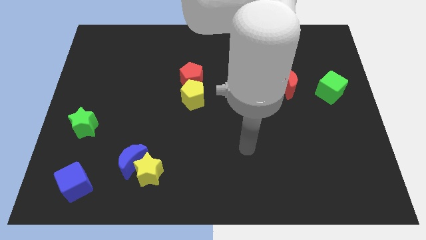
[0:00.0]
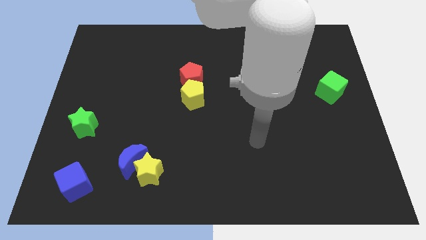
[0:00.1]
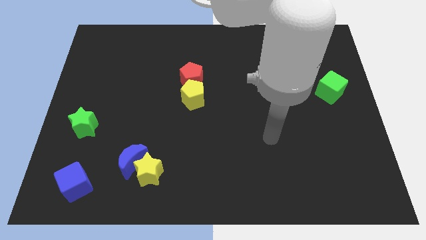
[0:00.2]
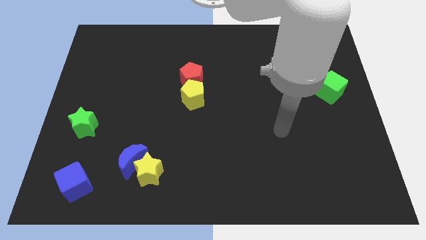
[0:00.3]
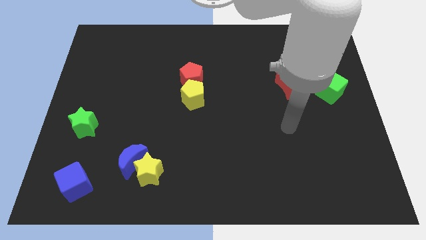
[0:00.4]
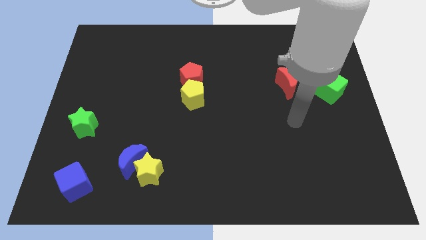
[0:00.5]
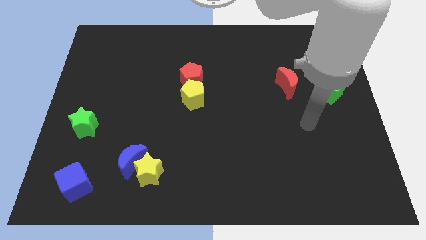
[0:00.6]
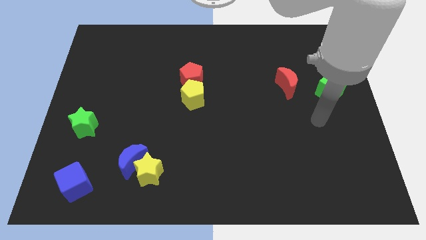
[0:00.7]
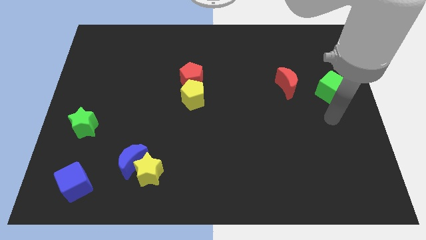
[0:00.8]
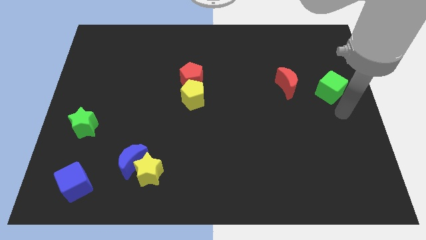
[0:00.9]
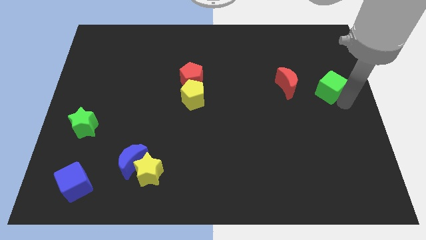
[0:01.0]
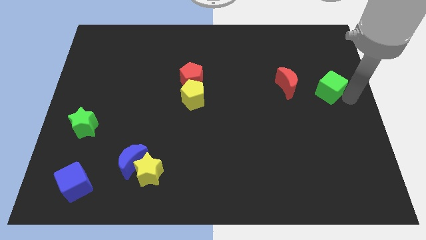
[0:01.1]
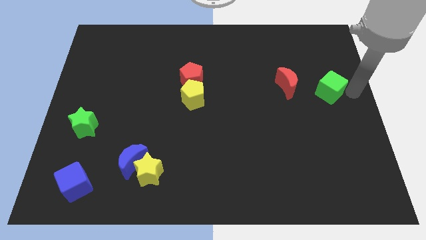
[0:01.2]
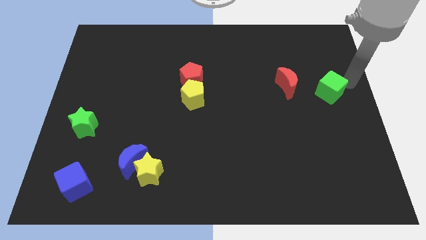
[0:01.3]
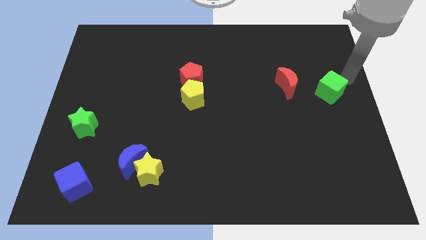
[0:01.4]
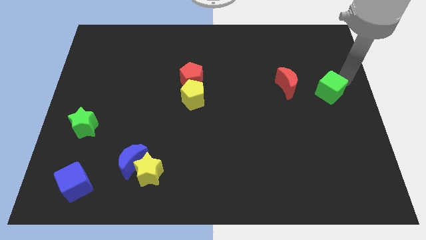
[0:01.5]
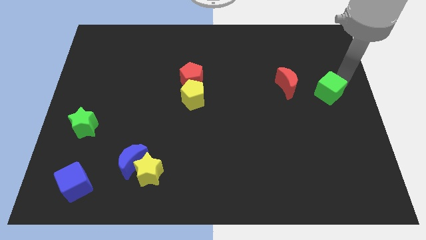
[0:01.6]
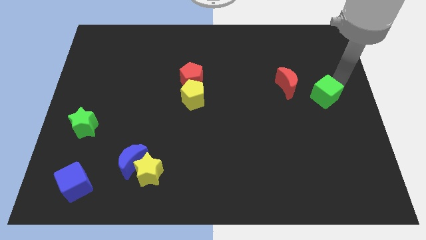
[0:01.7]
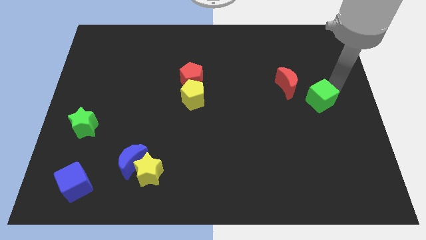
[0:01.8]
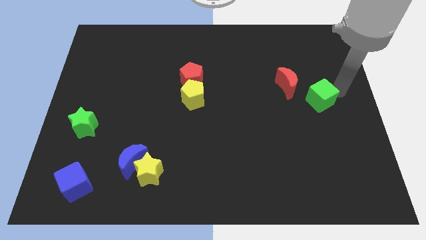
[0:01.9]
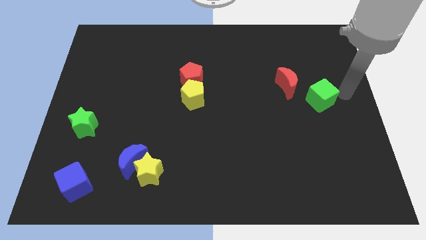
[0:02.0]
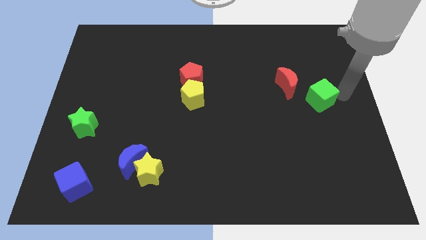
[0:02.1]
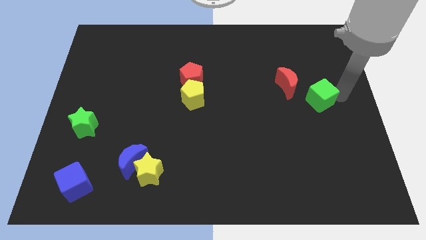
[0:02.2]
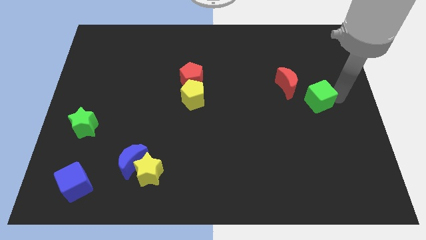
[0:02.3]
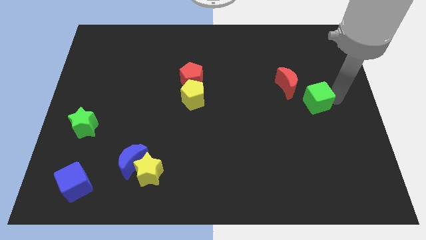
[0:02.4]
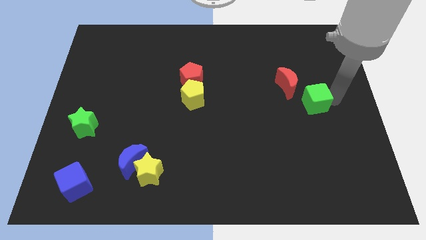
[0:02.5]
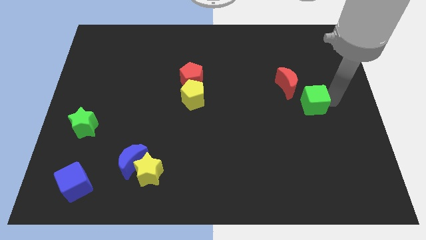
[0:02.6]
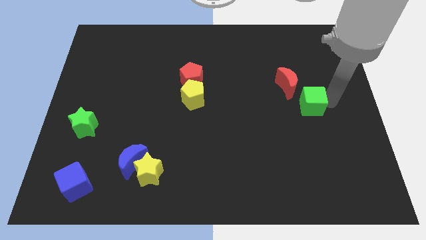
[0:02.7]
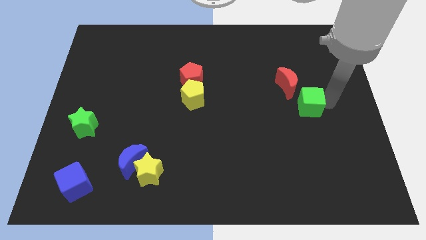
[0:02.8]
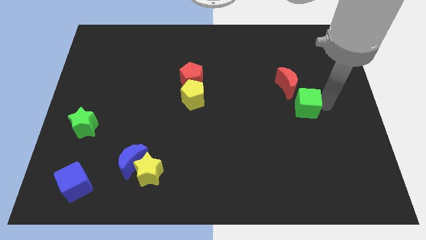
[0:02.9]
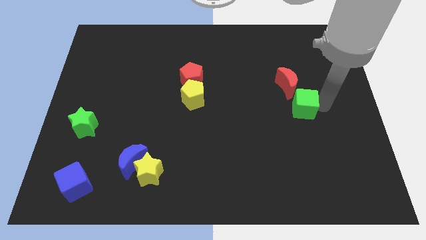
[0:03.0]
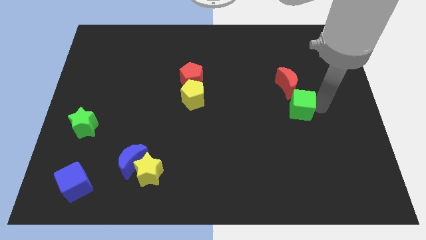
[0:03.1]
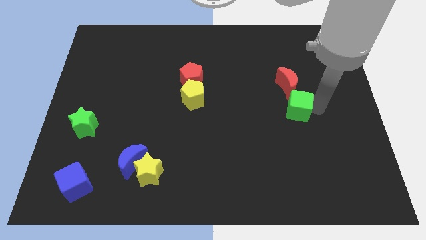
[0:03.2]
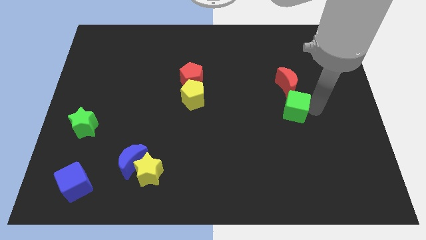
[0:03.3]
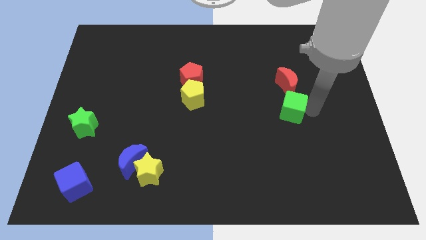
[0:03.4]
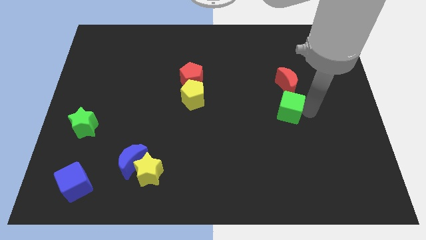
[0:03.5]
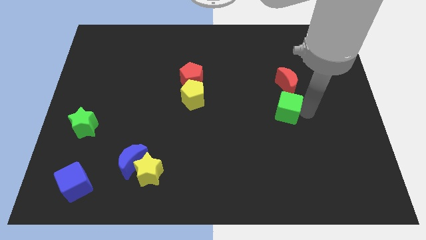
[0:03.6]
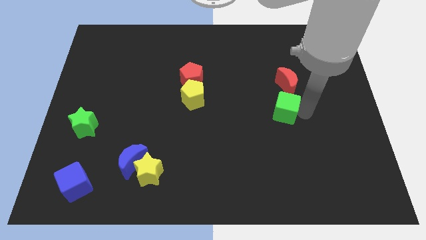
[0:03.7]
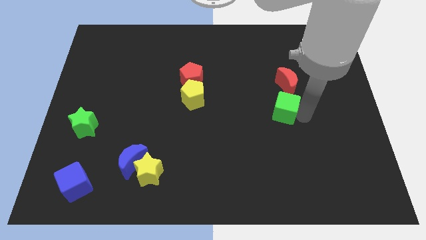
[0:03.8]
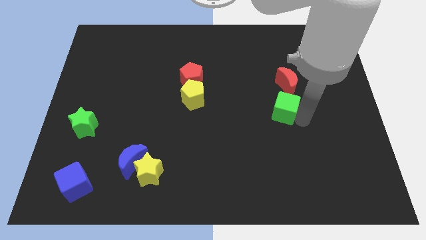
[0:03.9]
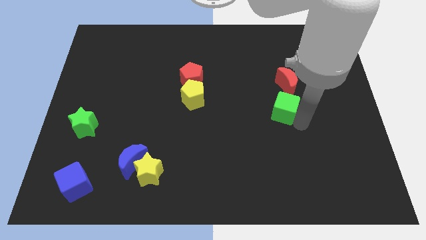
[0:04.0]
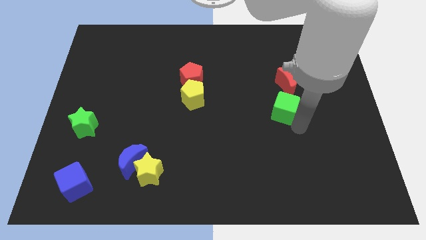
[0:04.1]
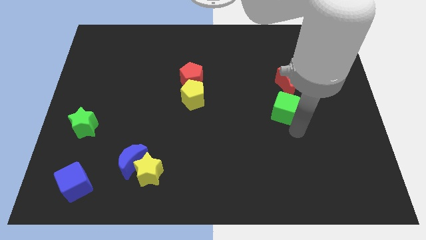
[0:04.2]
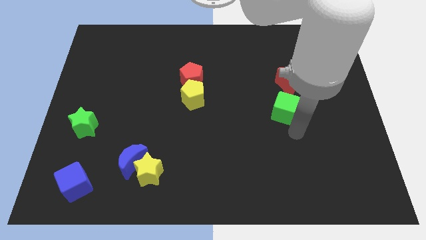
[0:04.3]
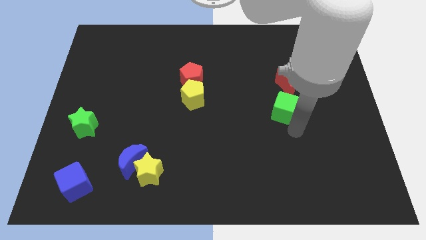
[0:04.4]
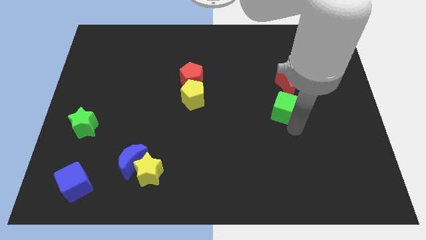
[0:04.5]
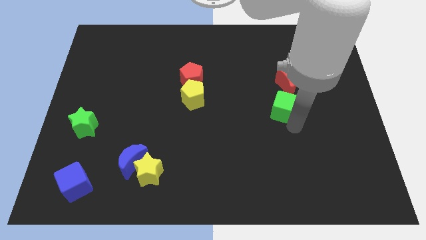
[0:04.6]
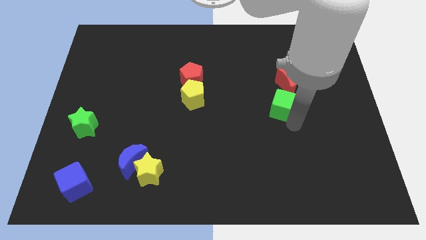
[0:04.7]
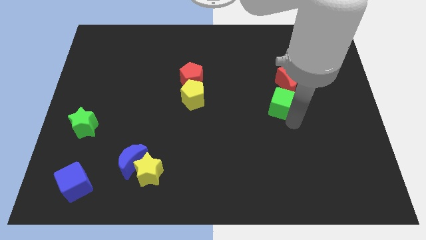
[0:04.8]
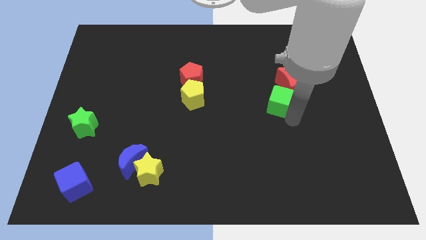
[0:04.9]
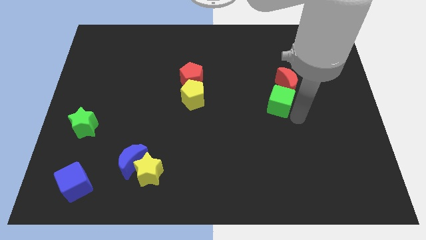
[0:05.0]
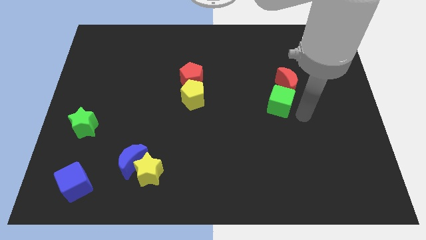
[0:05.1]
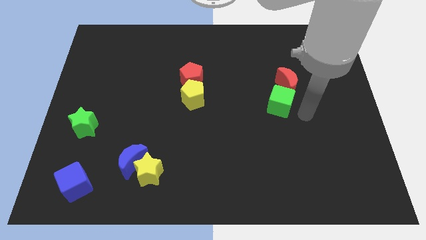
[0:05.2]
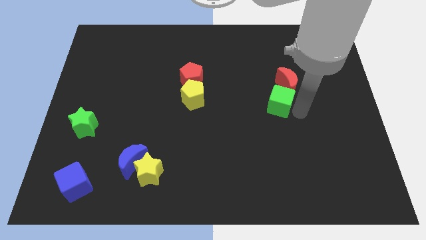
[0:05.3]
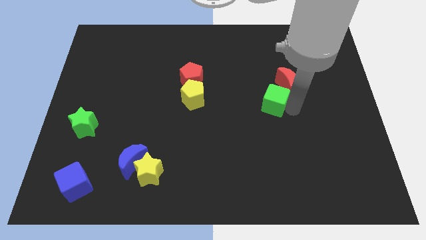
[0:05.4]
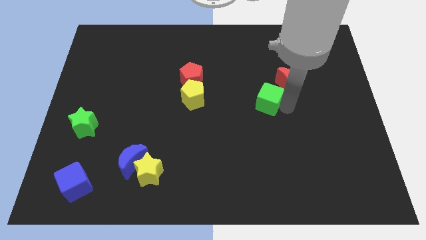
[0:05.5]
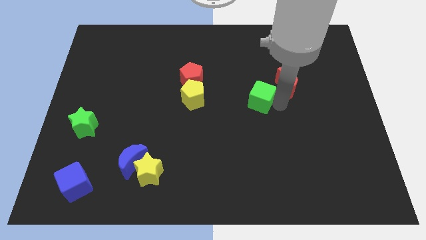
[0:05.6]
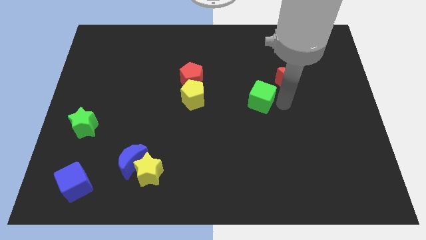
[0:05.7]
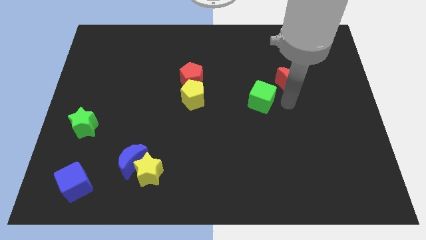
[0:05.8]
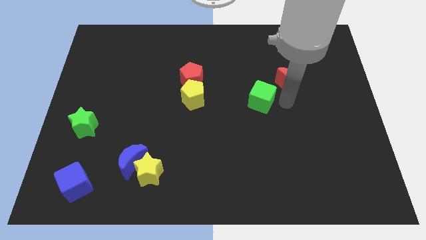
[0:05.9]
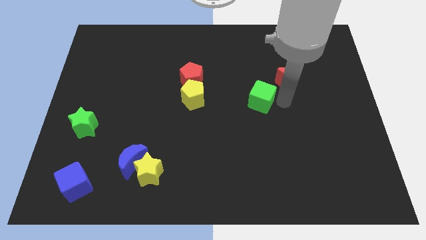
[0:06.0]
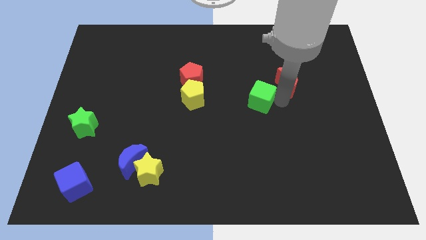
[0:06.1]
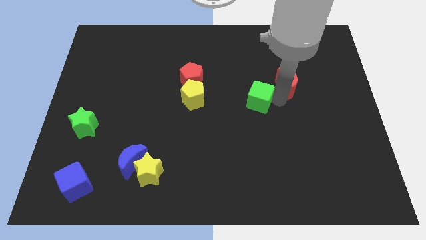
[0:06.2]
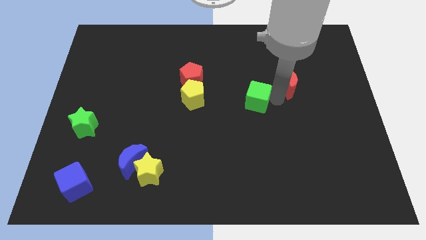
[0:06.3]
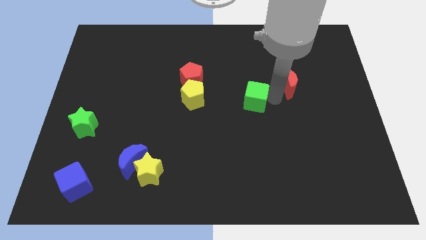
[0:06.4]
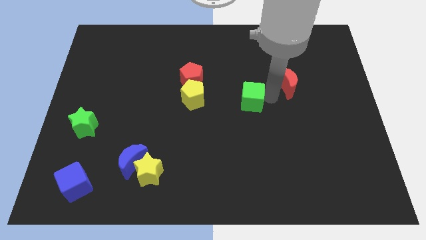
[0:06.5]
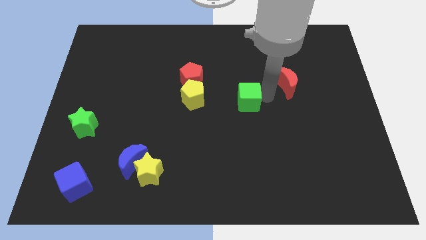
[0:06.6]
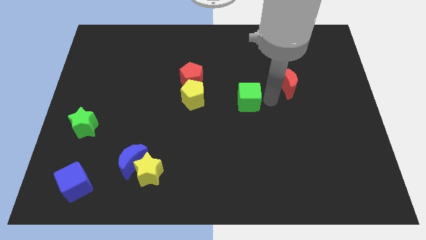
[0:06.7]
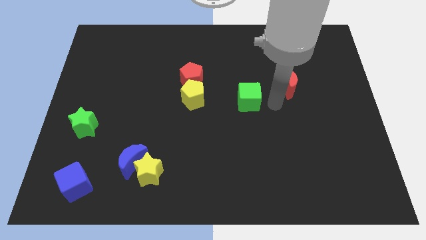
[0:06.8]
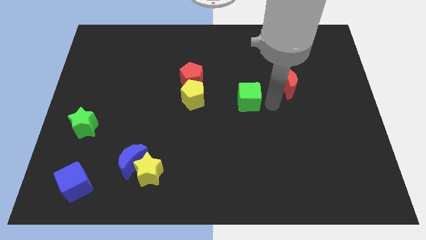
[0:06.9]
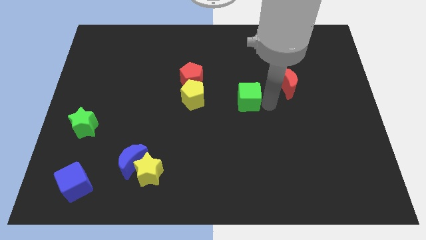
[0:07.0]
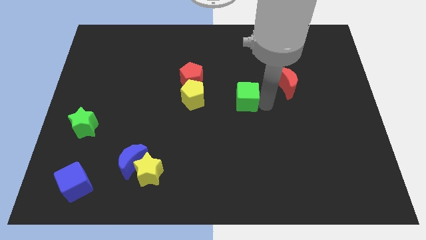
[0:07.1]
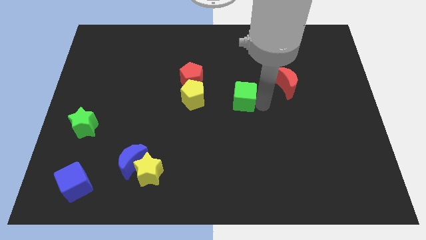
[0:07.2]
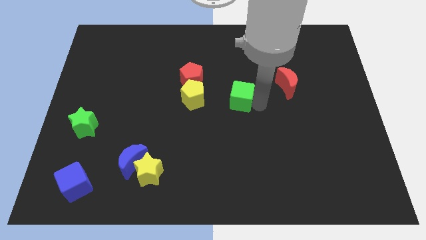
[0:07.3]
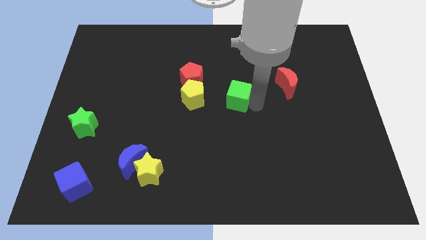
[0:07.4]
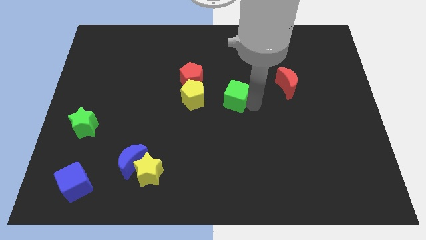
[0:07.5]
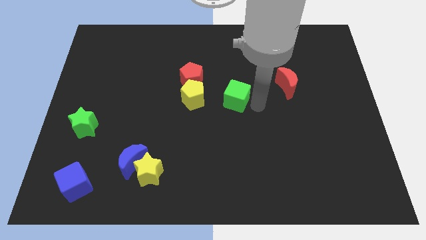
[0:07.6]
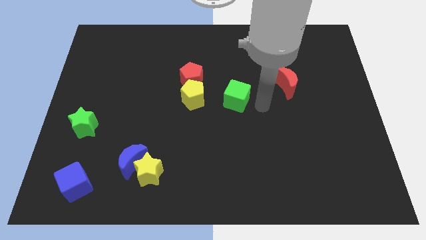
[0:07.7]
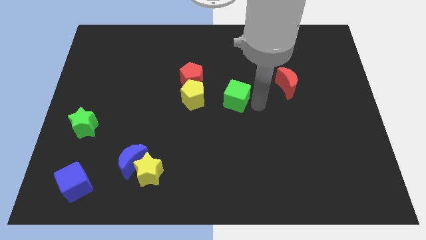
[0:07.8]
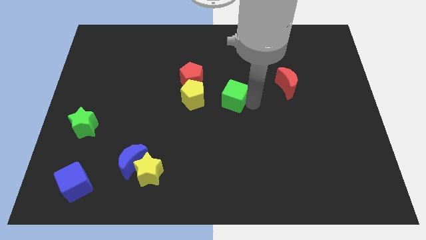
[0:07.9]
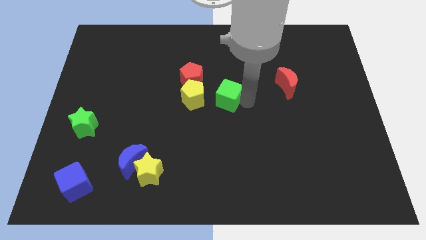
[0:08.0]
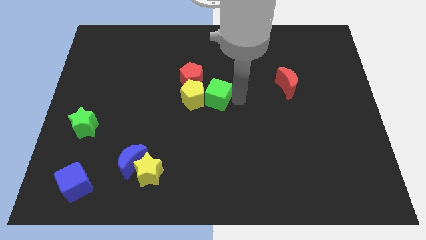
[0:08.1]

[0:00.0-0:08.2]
slide the green cube towards the yellow pentagon
